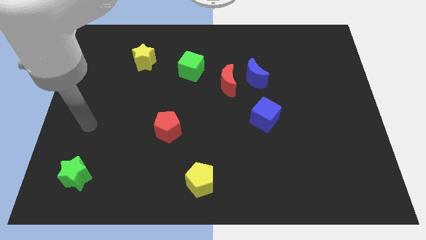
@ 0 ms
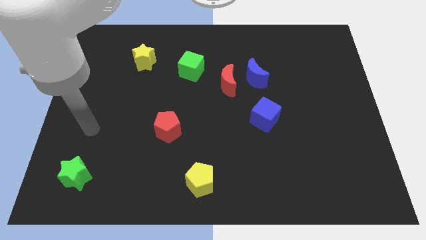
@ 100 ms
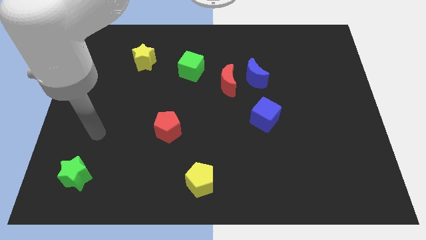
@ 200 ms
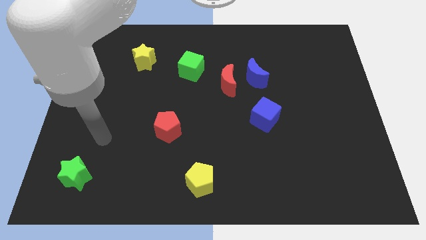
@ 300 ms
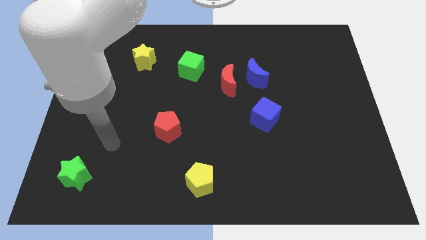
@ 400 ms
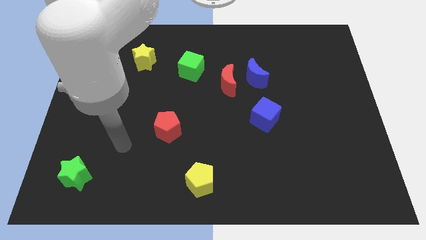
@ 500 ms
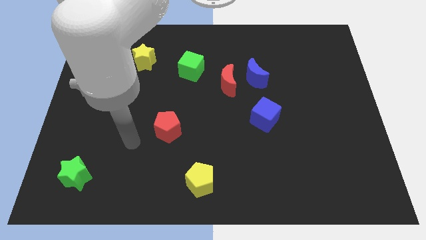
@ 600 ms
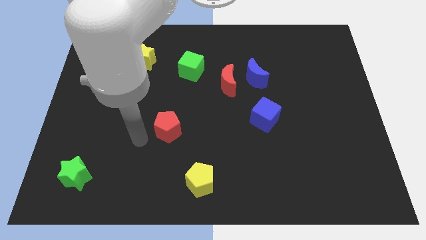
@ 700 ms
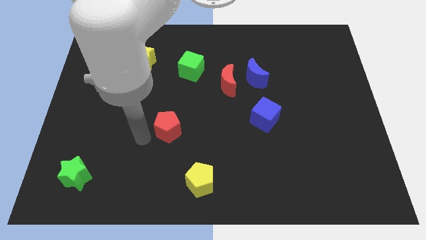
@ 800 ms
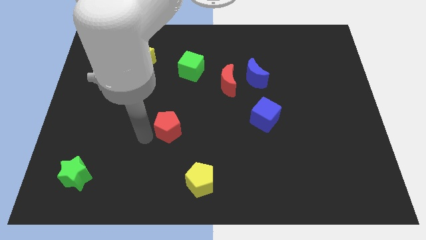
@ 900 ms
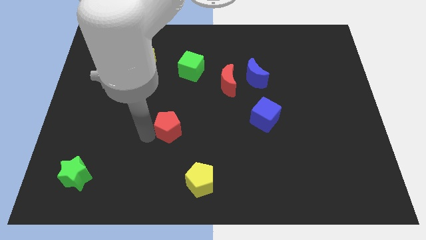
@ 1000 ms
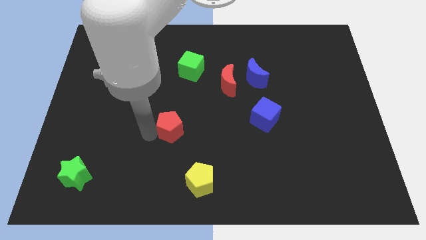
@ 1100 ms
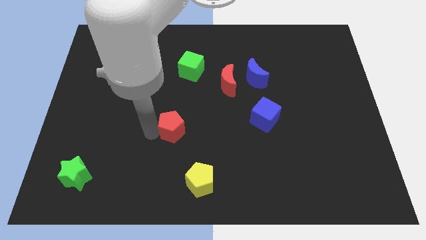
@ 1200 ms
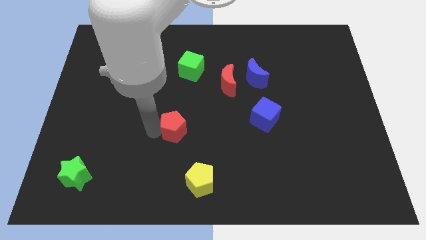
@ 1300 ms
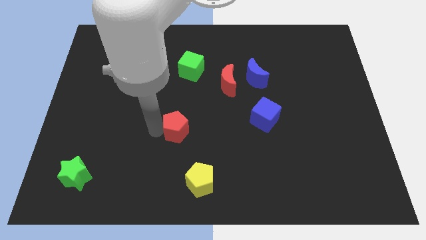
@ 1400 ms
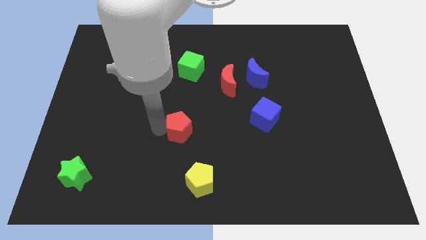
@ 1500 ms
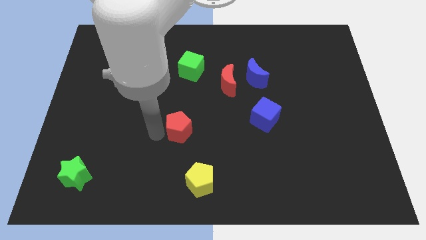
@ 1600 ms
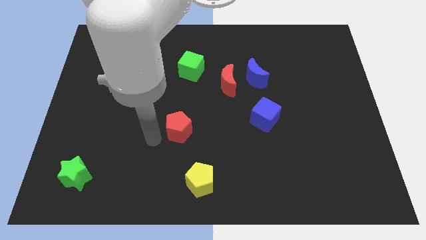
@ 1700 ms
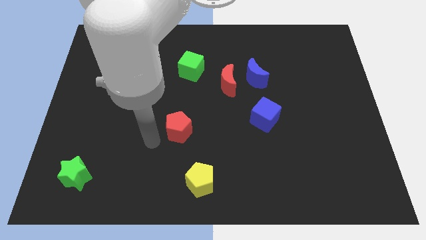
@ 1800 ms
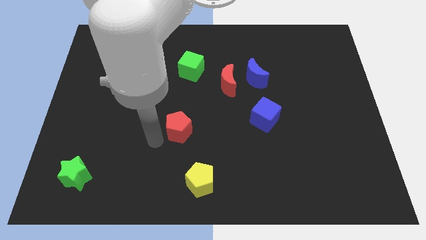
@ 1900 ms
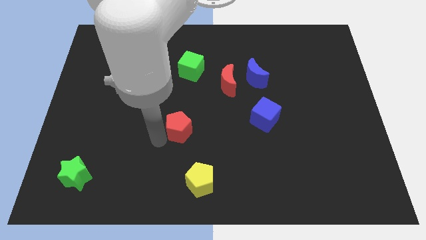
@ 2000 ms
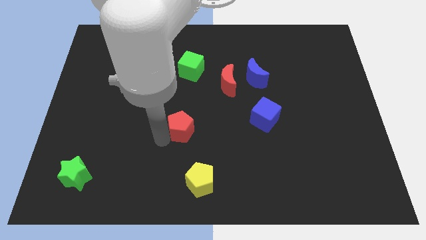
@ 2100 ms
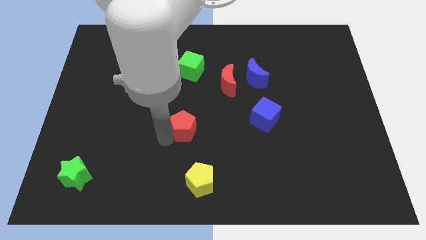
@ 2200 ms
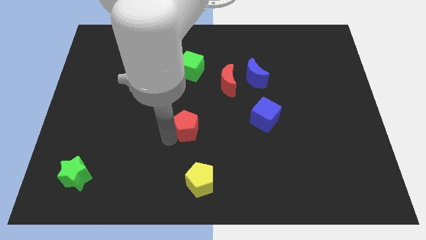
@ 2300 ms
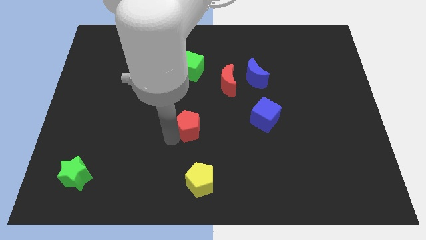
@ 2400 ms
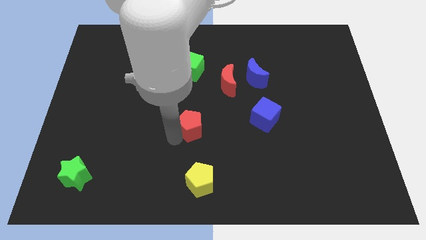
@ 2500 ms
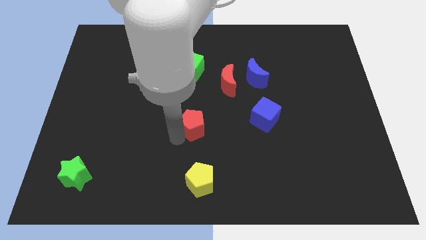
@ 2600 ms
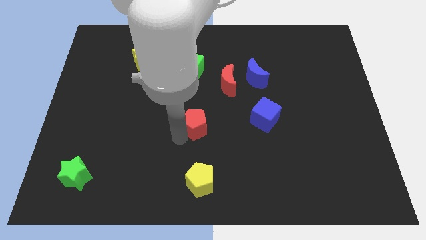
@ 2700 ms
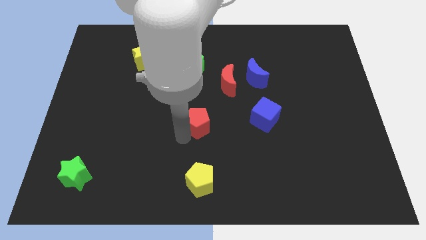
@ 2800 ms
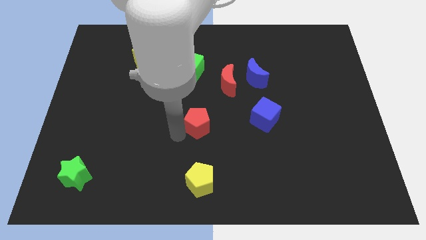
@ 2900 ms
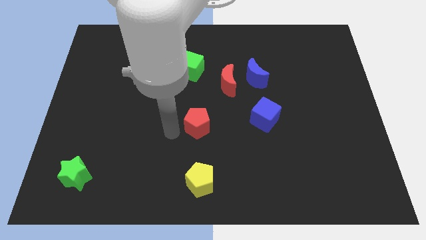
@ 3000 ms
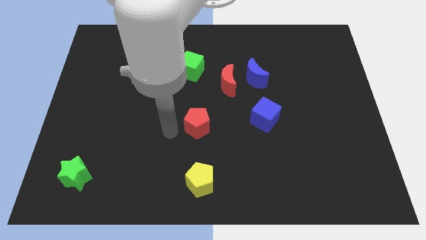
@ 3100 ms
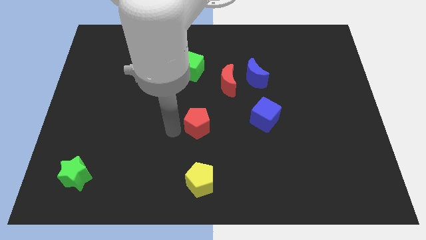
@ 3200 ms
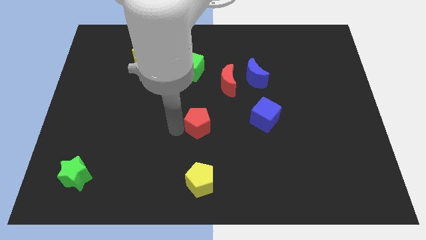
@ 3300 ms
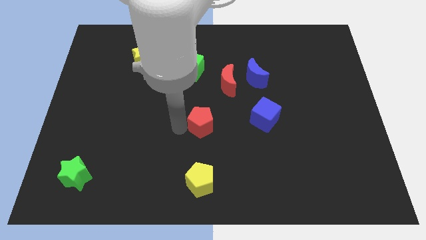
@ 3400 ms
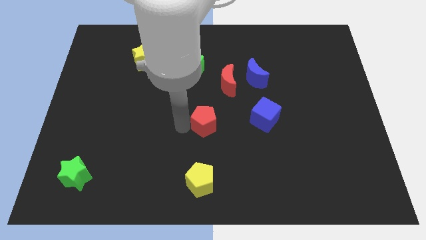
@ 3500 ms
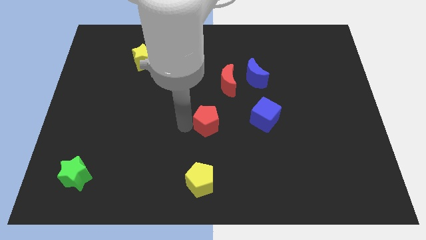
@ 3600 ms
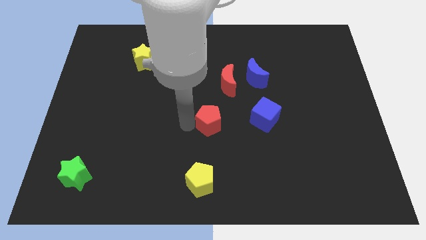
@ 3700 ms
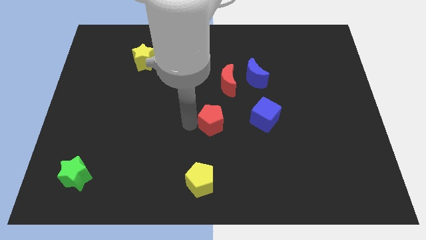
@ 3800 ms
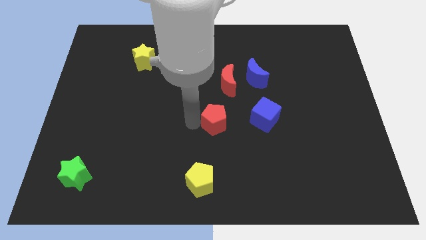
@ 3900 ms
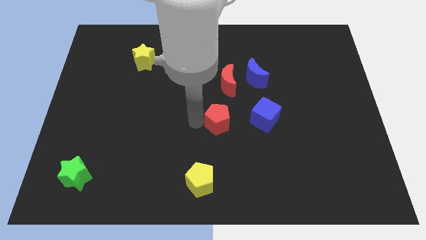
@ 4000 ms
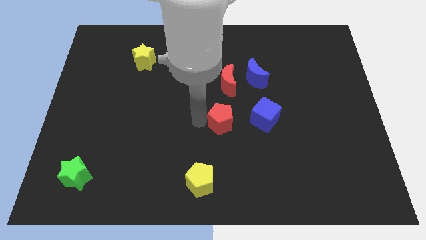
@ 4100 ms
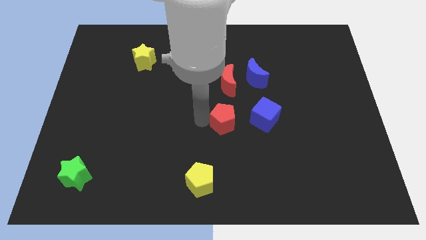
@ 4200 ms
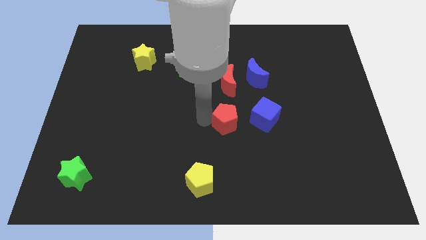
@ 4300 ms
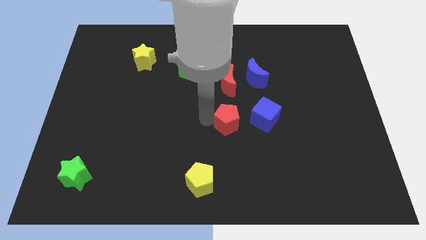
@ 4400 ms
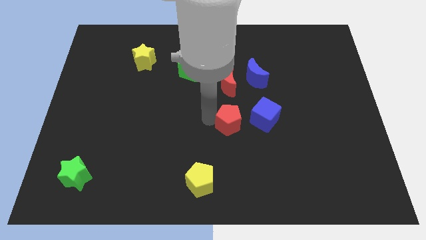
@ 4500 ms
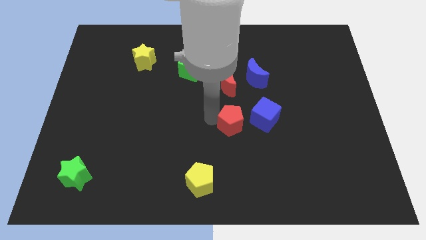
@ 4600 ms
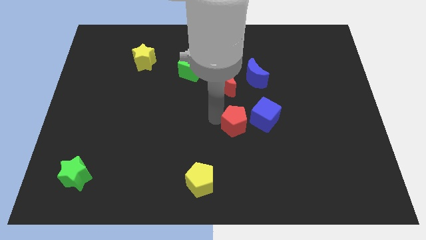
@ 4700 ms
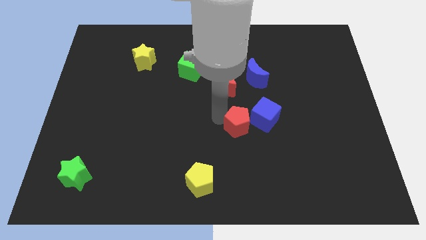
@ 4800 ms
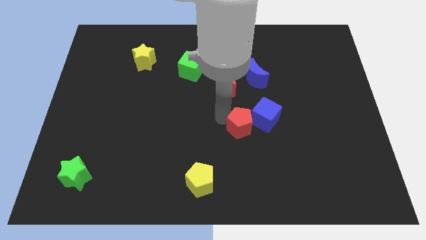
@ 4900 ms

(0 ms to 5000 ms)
slide the red pentagon close to the blue cube

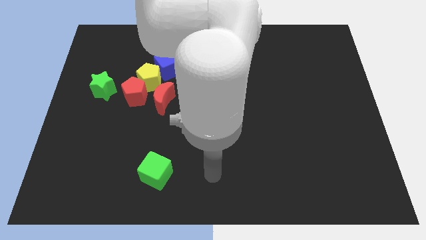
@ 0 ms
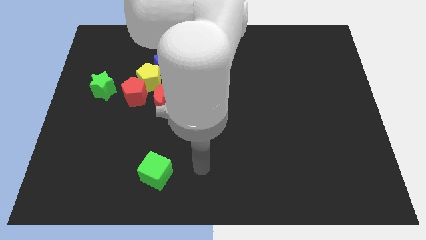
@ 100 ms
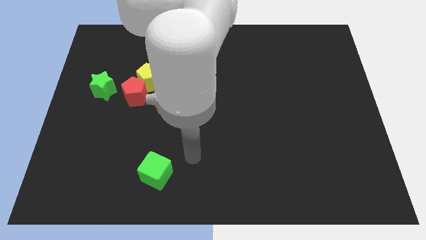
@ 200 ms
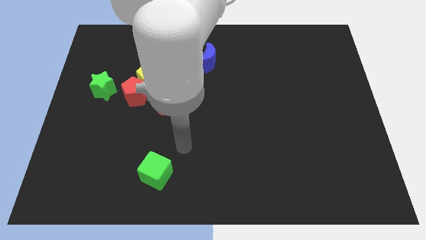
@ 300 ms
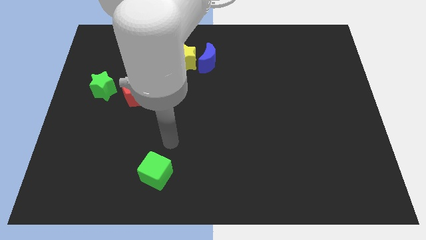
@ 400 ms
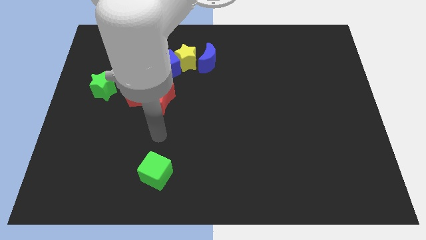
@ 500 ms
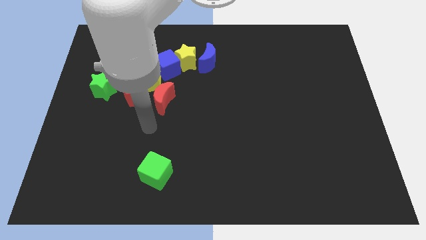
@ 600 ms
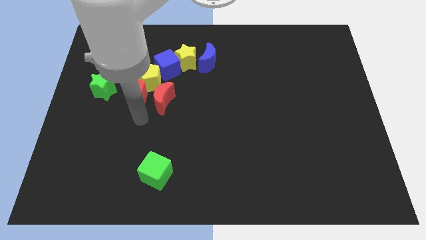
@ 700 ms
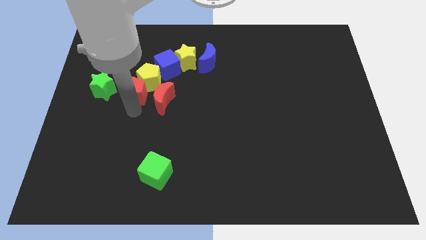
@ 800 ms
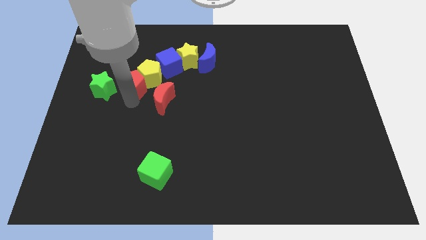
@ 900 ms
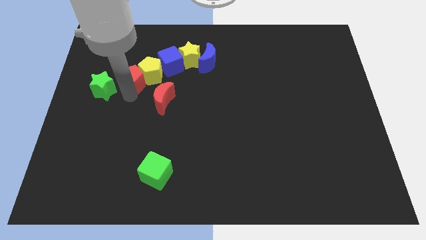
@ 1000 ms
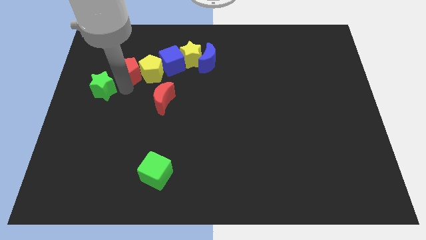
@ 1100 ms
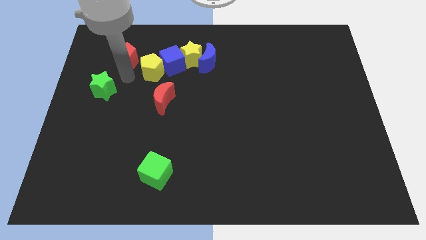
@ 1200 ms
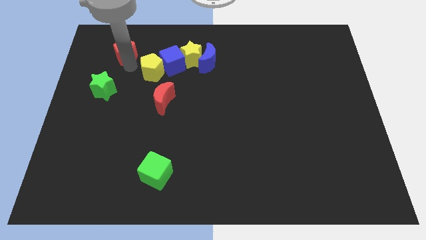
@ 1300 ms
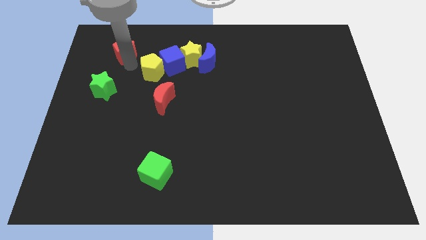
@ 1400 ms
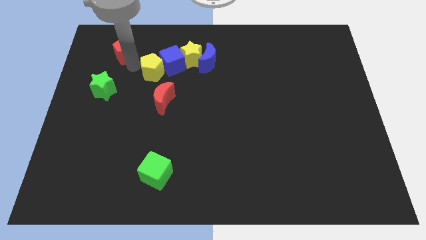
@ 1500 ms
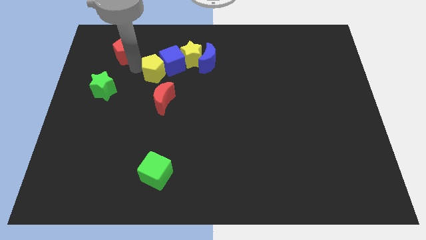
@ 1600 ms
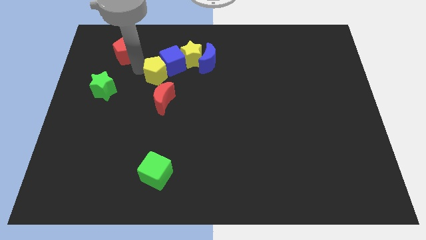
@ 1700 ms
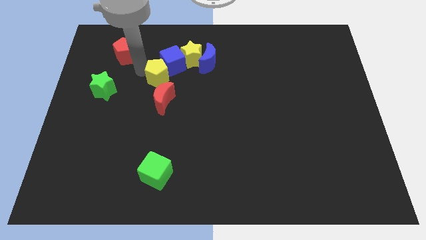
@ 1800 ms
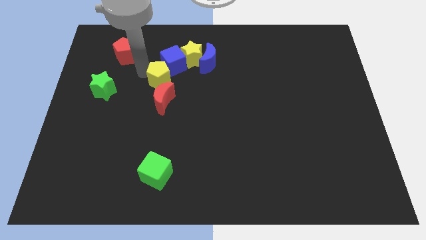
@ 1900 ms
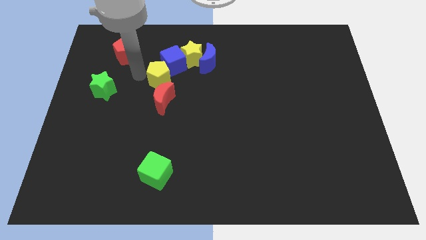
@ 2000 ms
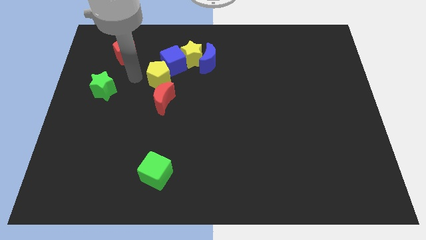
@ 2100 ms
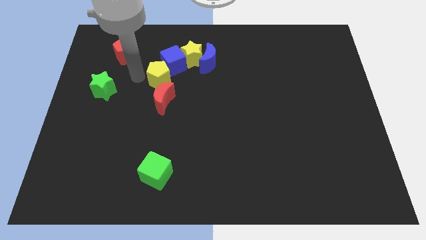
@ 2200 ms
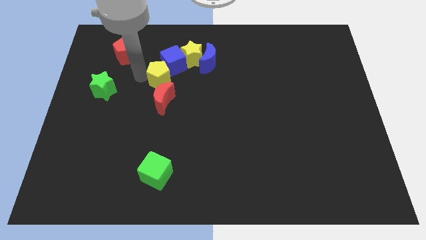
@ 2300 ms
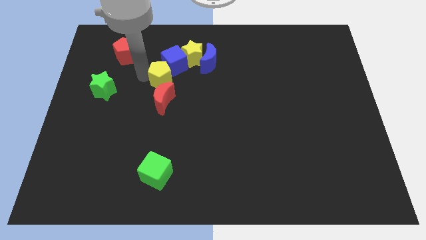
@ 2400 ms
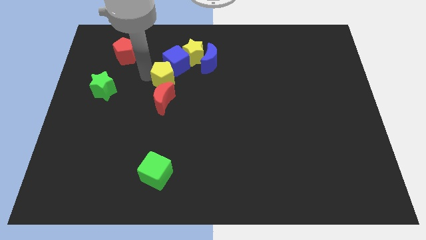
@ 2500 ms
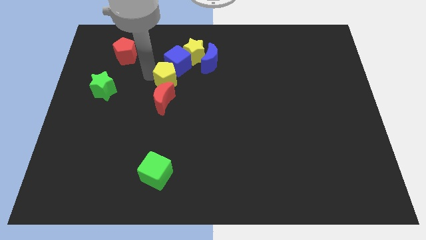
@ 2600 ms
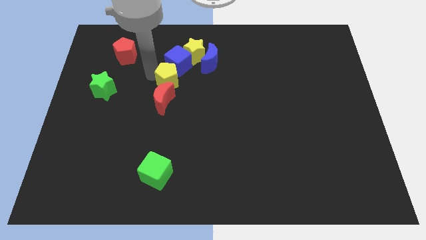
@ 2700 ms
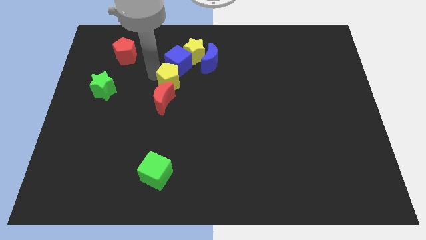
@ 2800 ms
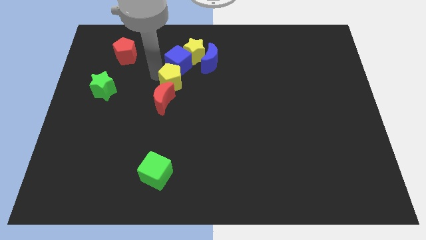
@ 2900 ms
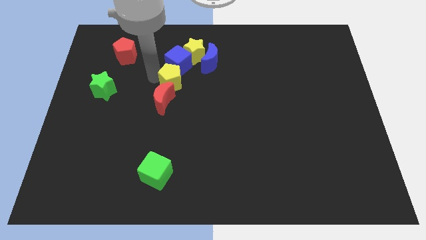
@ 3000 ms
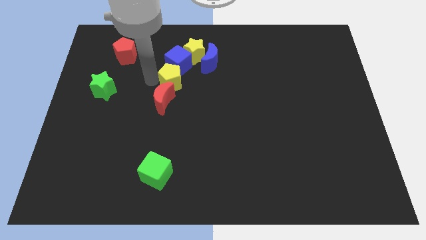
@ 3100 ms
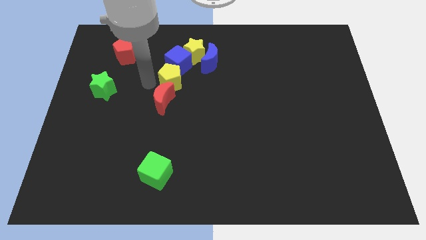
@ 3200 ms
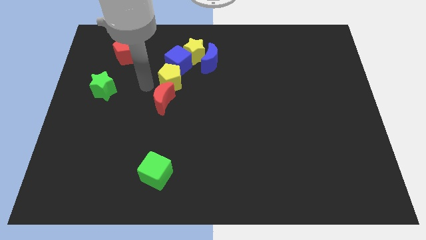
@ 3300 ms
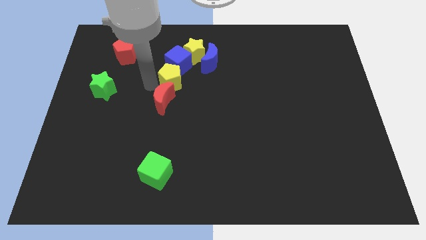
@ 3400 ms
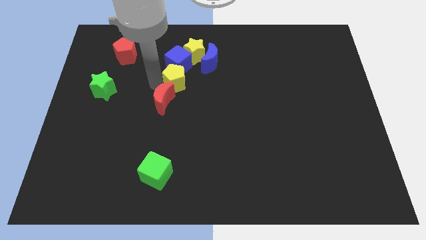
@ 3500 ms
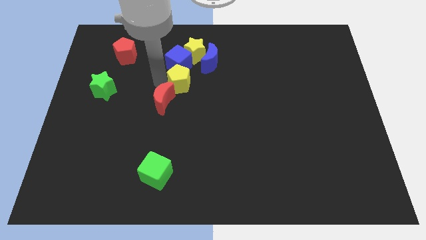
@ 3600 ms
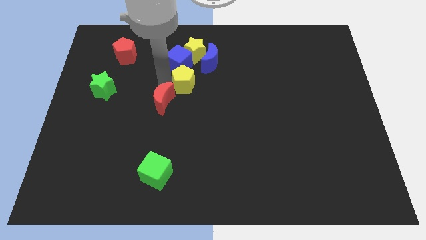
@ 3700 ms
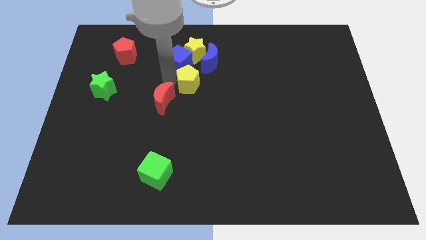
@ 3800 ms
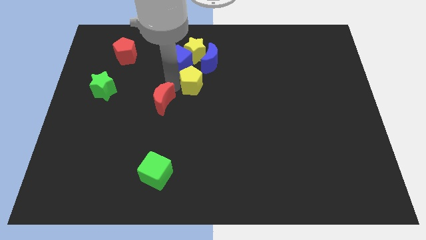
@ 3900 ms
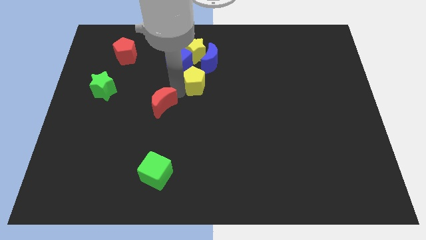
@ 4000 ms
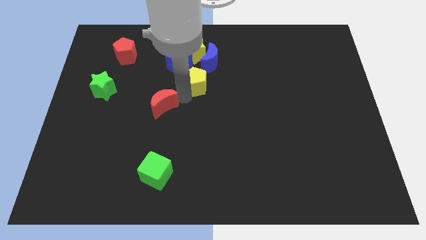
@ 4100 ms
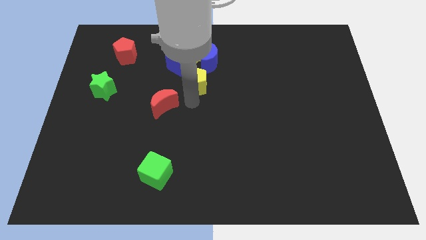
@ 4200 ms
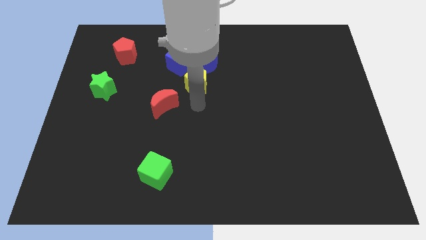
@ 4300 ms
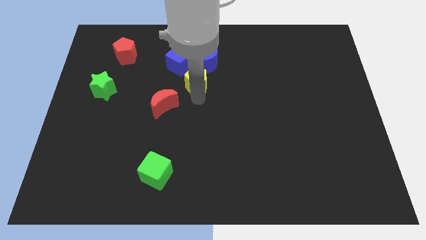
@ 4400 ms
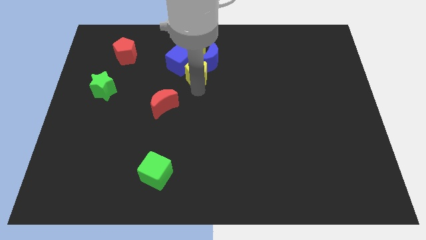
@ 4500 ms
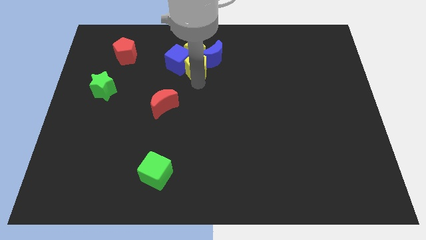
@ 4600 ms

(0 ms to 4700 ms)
push the yellow pentagon next to the yellow star
